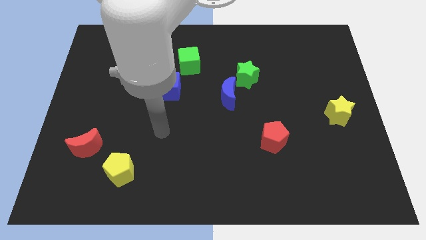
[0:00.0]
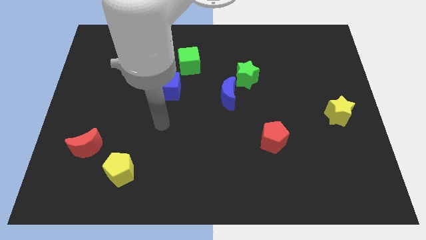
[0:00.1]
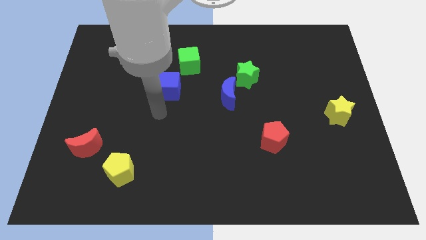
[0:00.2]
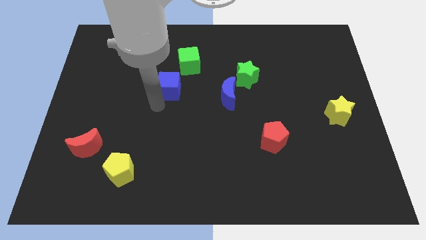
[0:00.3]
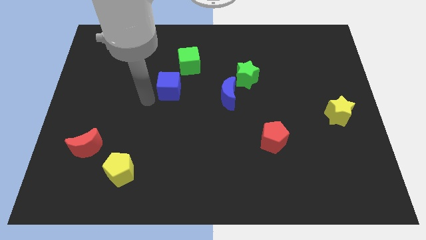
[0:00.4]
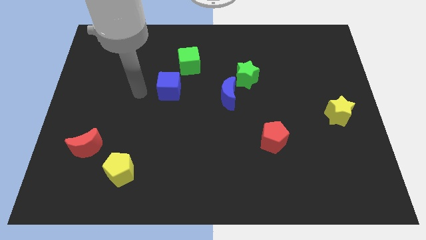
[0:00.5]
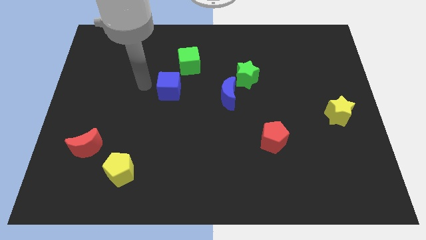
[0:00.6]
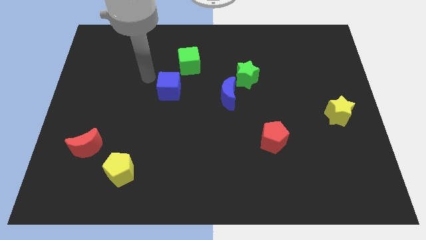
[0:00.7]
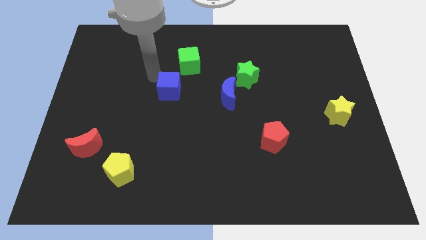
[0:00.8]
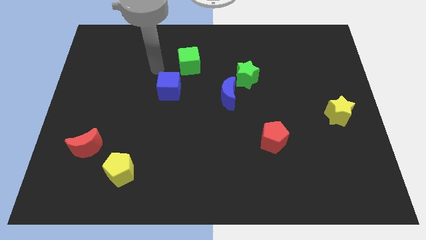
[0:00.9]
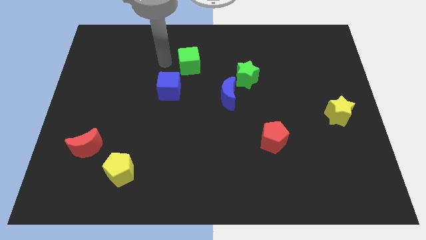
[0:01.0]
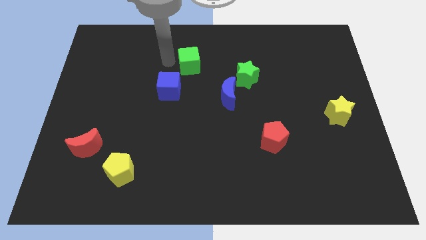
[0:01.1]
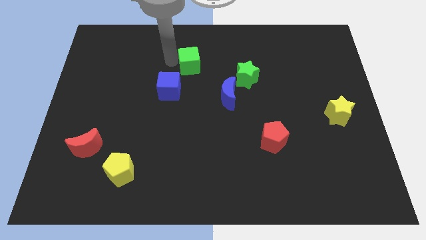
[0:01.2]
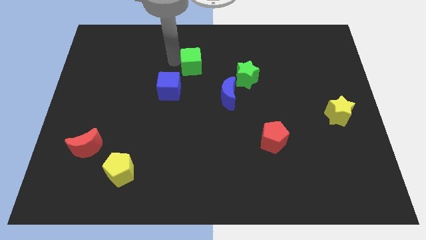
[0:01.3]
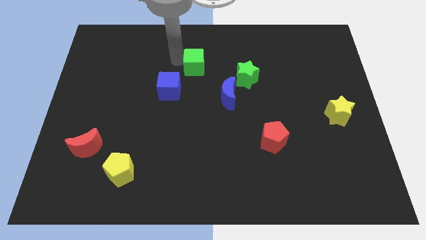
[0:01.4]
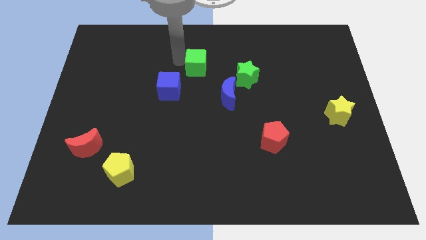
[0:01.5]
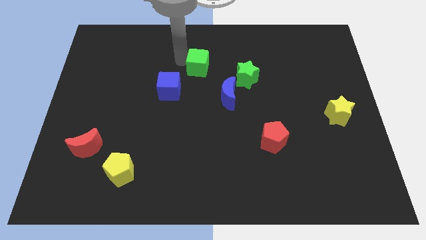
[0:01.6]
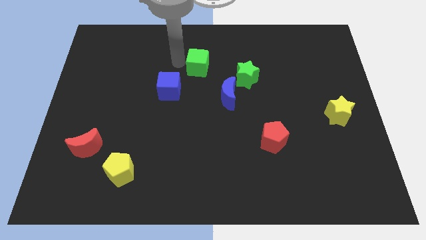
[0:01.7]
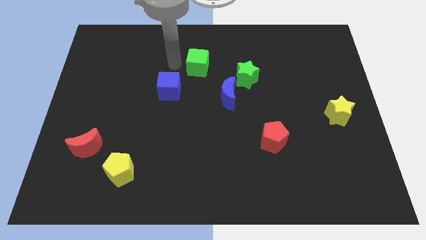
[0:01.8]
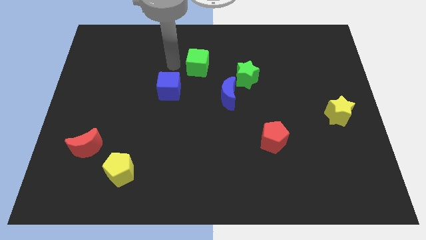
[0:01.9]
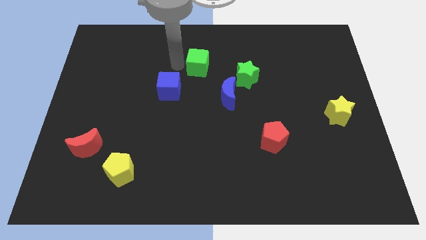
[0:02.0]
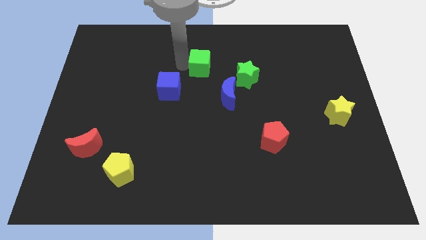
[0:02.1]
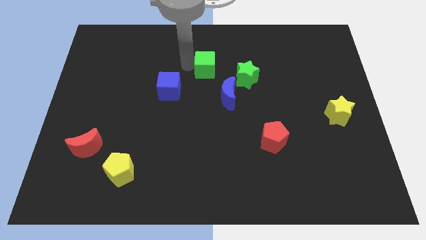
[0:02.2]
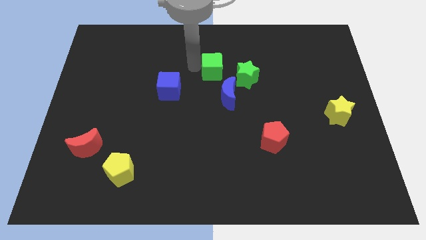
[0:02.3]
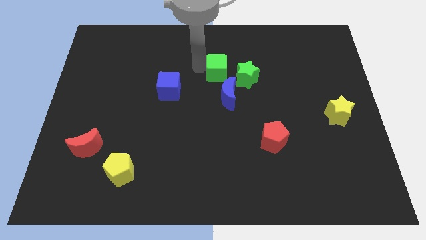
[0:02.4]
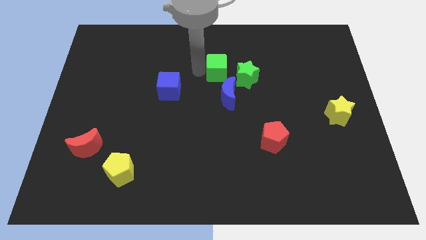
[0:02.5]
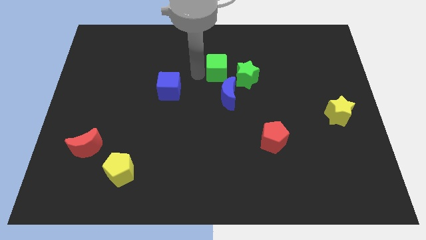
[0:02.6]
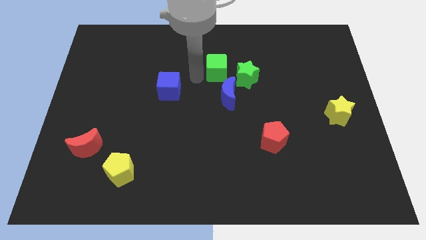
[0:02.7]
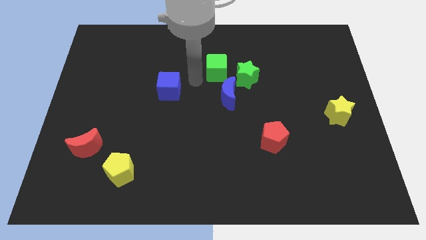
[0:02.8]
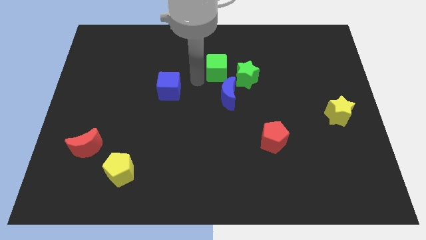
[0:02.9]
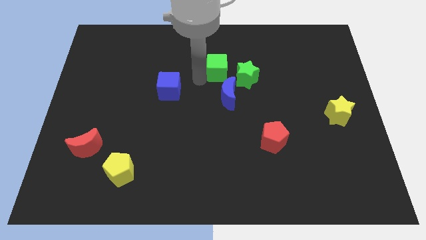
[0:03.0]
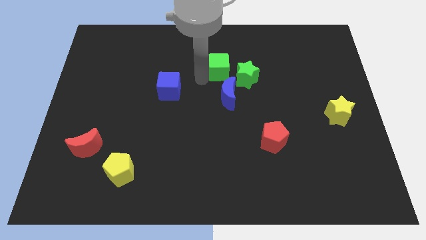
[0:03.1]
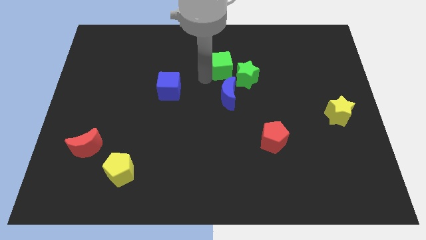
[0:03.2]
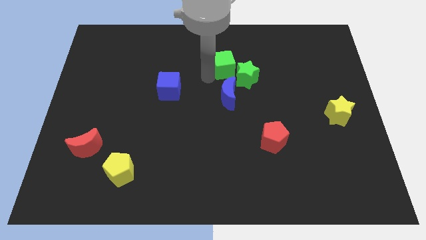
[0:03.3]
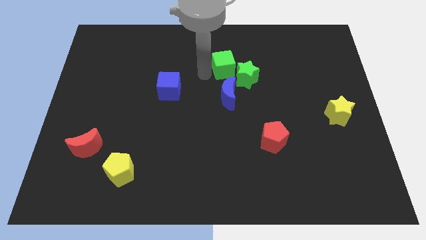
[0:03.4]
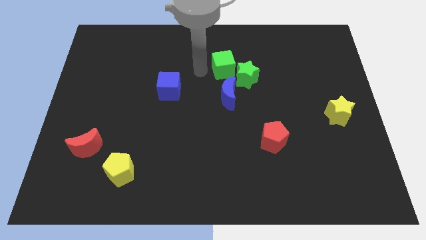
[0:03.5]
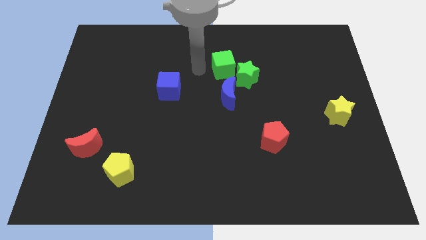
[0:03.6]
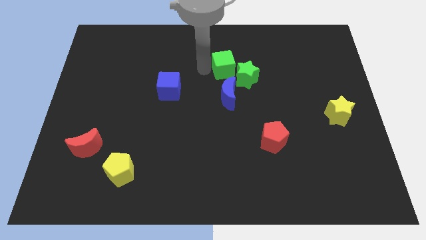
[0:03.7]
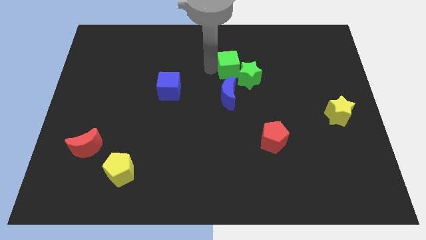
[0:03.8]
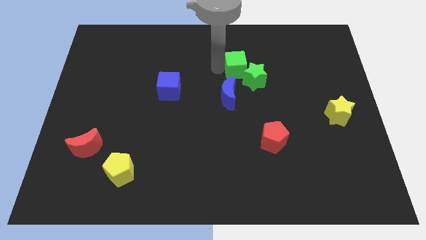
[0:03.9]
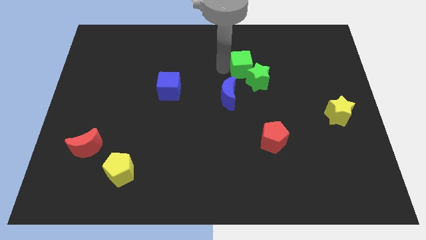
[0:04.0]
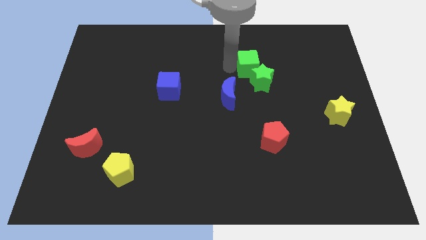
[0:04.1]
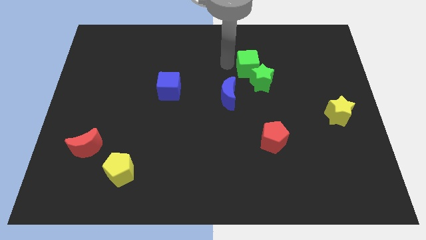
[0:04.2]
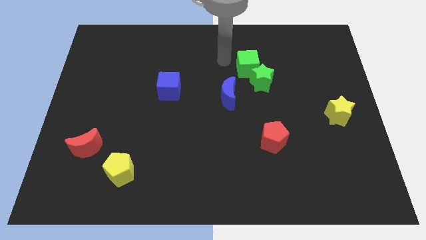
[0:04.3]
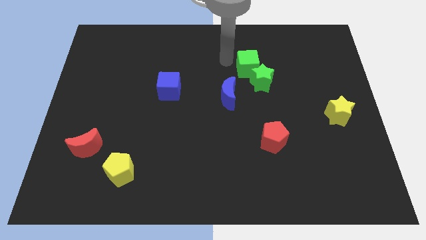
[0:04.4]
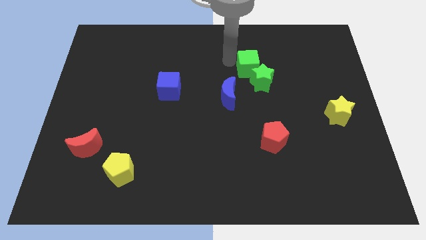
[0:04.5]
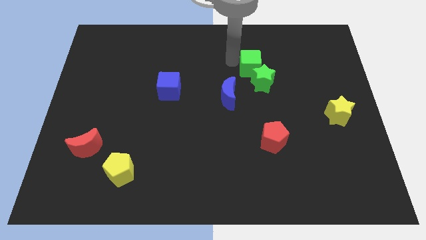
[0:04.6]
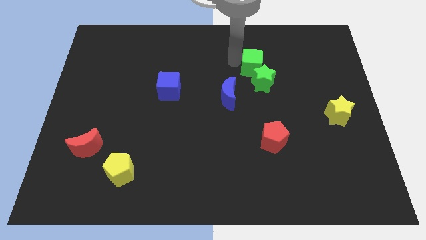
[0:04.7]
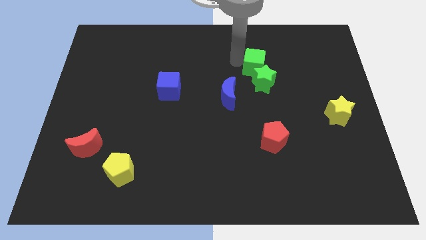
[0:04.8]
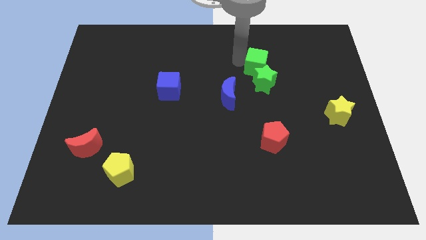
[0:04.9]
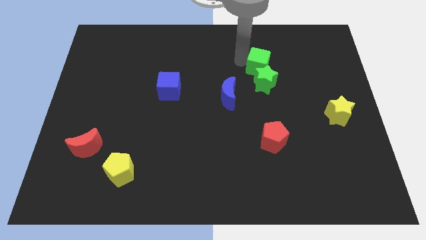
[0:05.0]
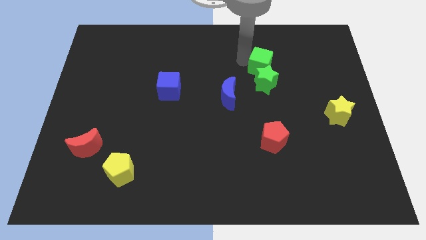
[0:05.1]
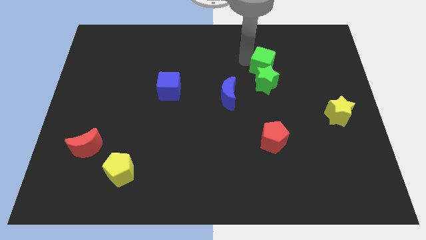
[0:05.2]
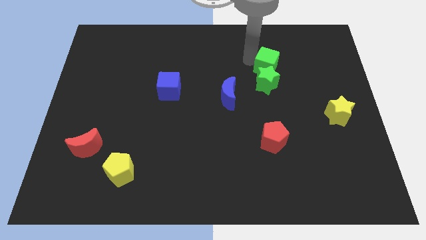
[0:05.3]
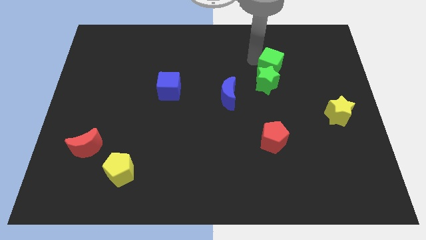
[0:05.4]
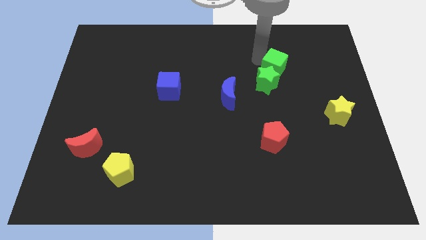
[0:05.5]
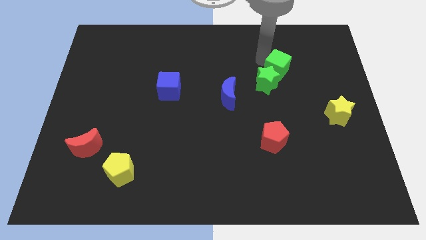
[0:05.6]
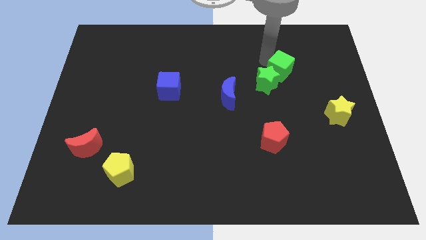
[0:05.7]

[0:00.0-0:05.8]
put the green cube just right of the green star
